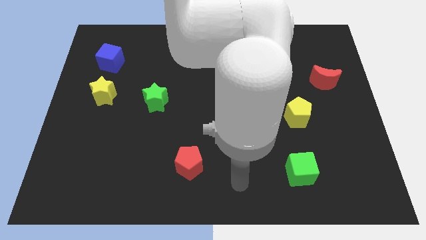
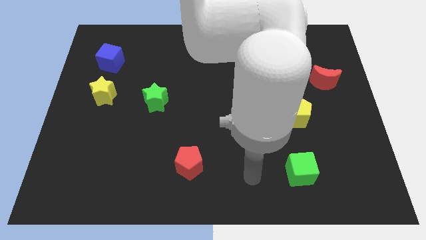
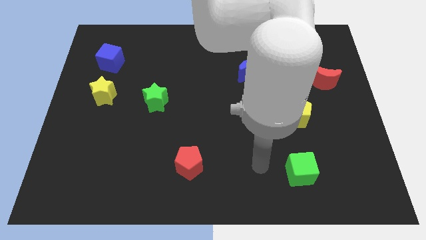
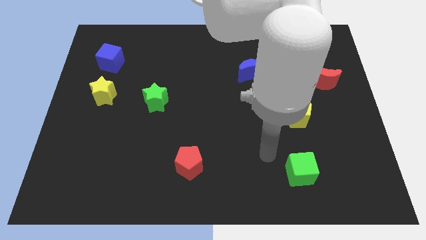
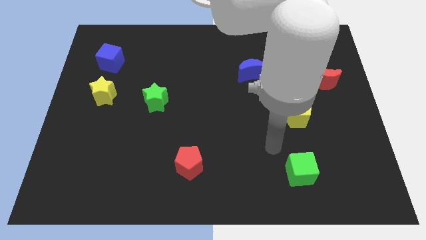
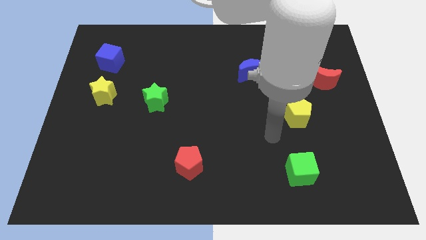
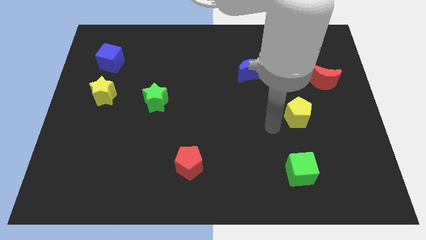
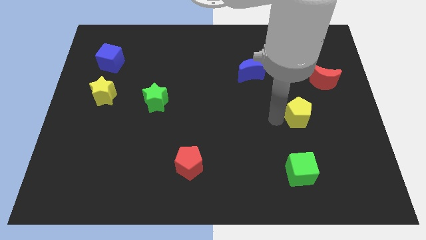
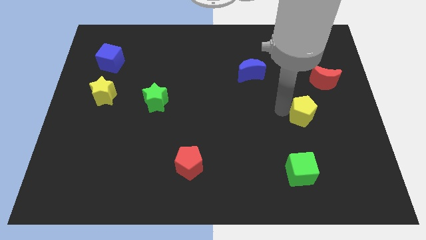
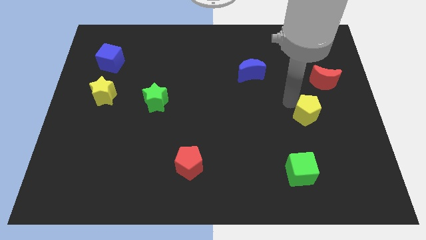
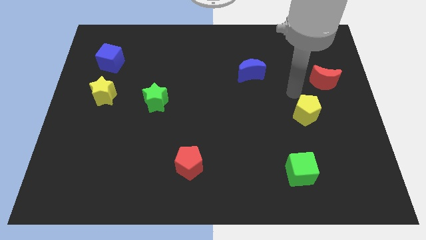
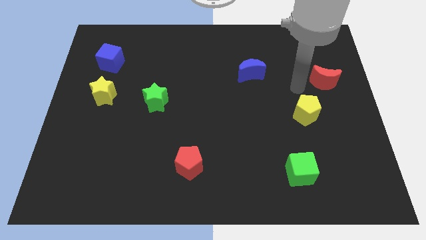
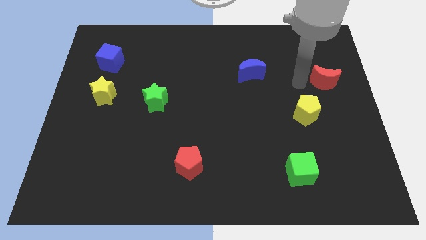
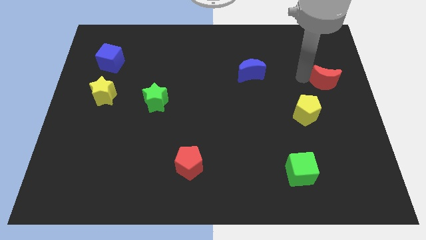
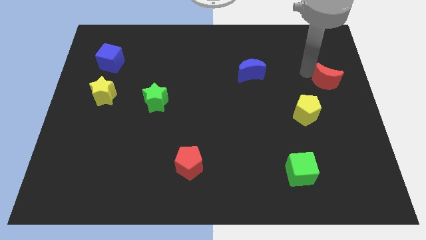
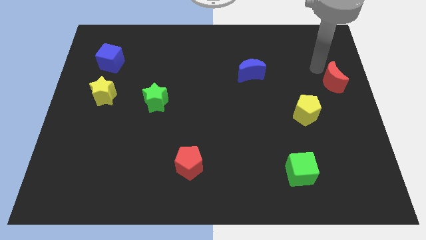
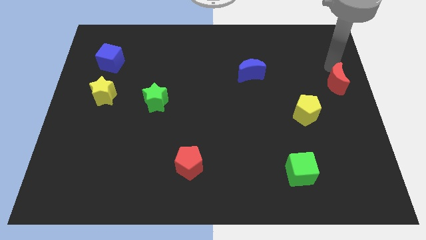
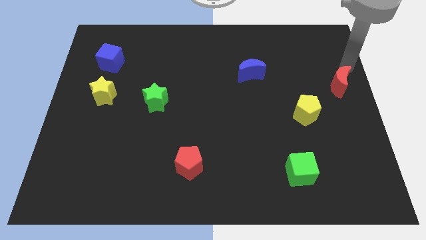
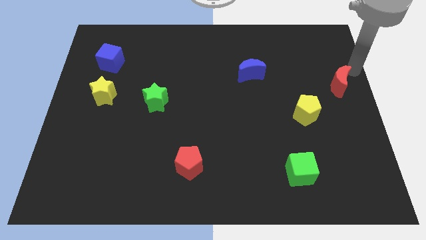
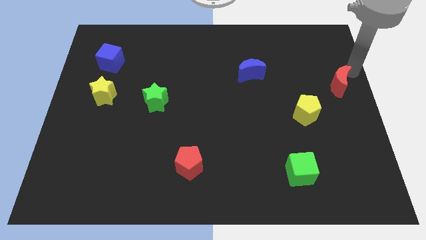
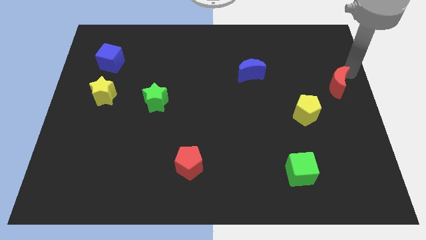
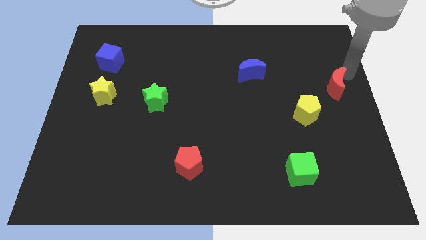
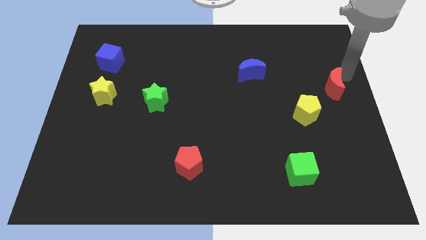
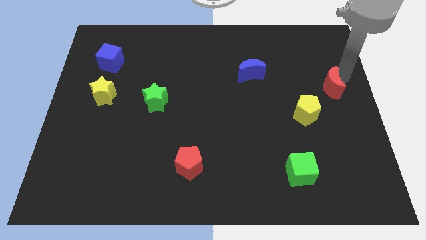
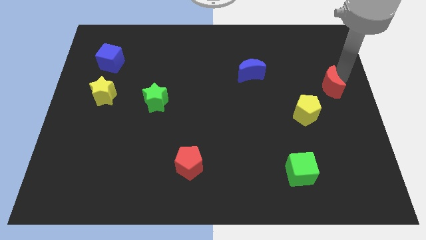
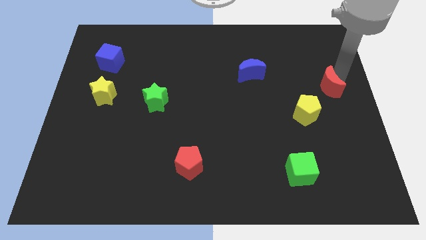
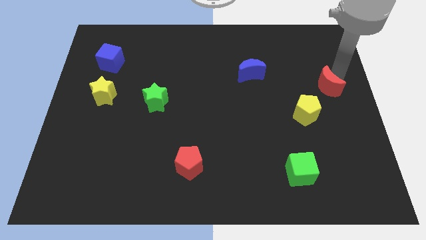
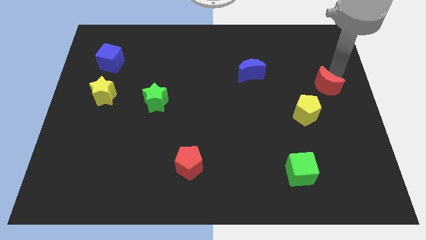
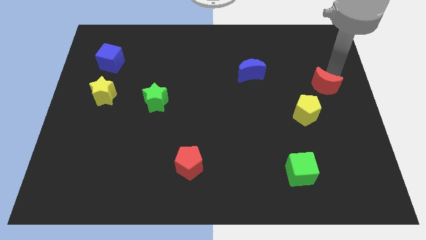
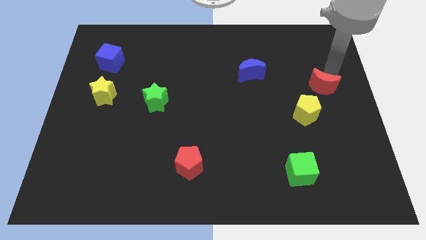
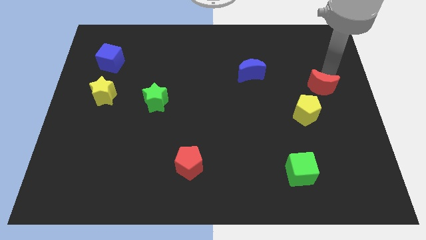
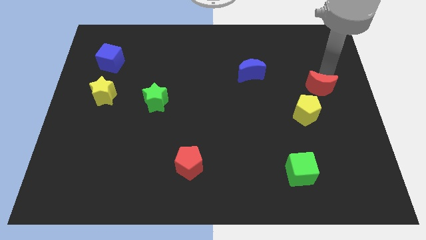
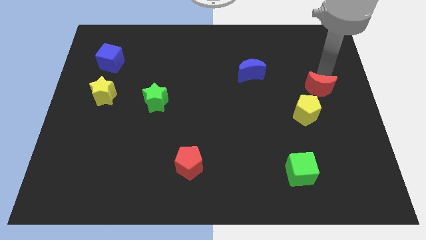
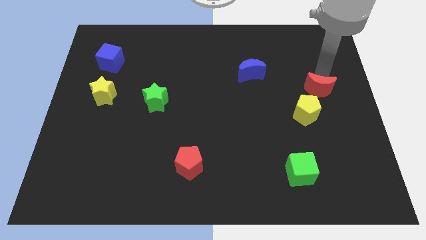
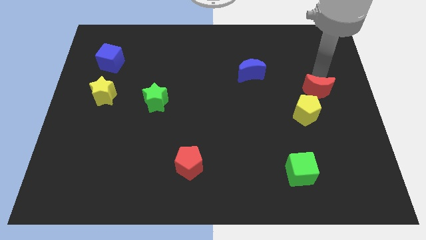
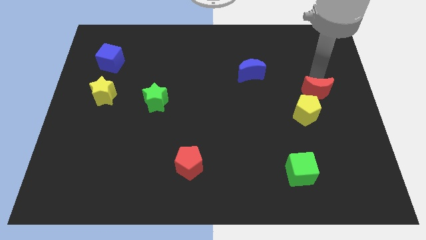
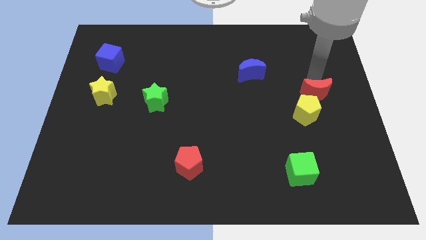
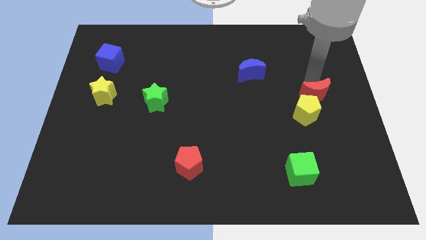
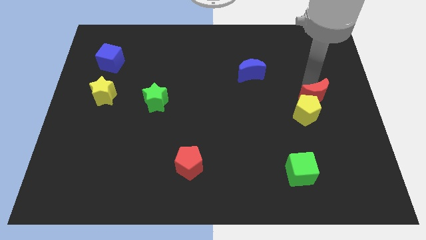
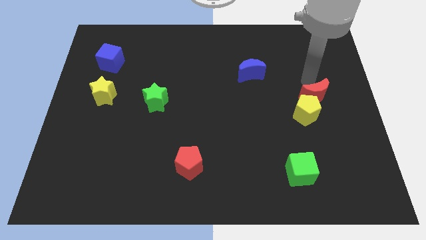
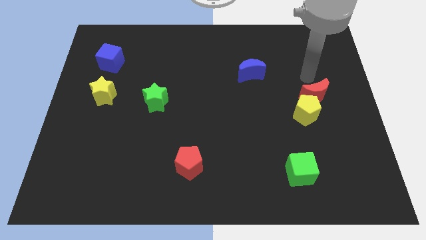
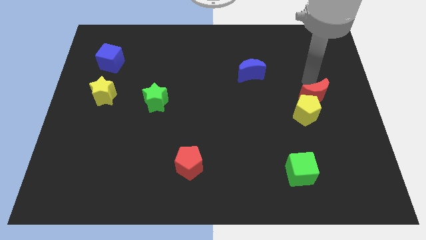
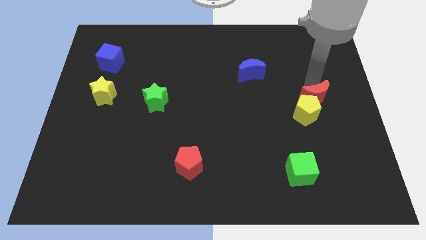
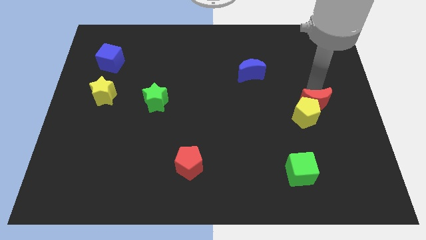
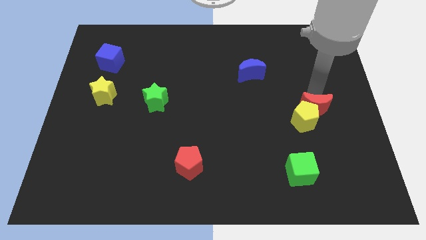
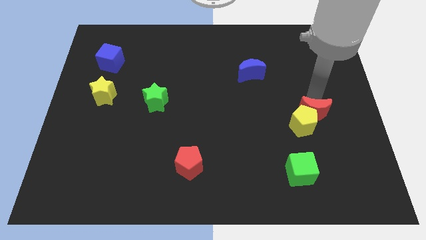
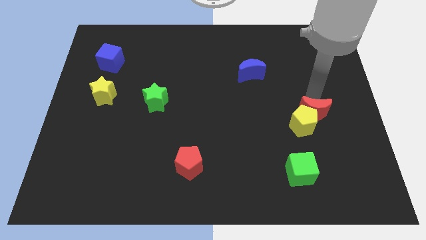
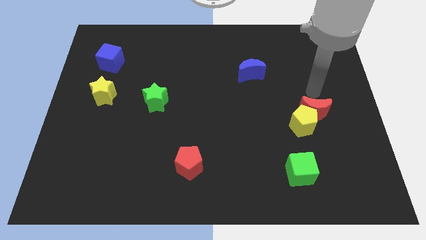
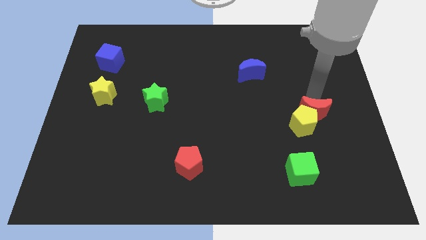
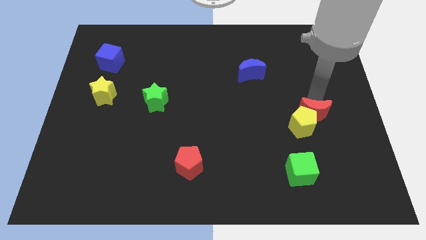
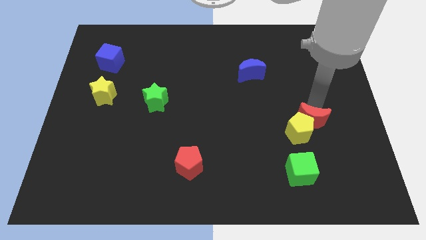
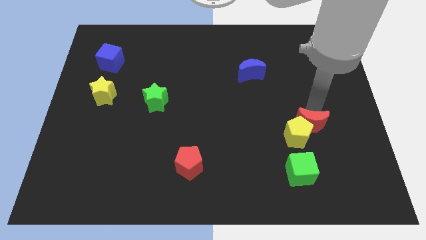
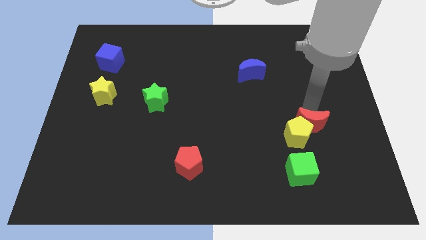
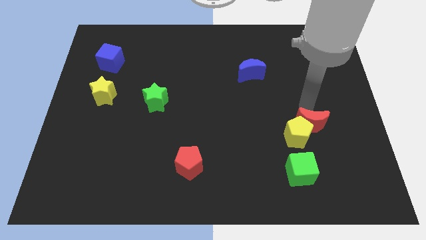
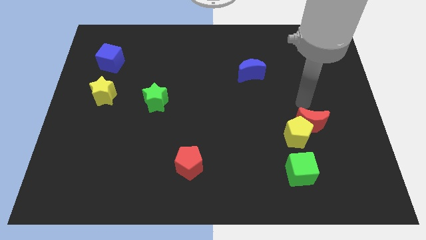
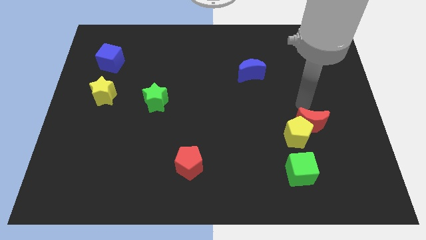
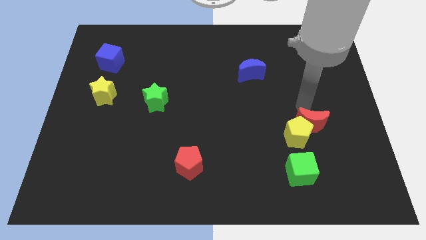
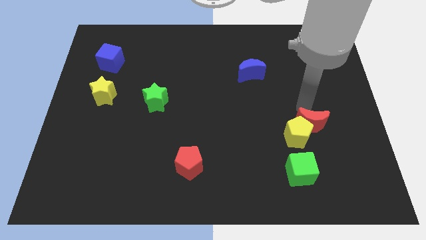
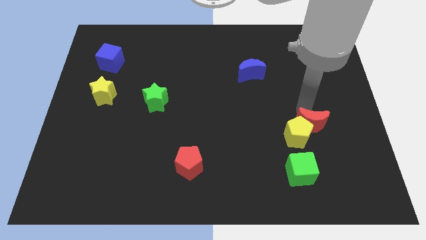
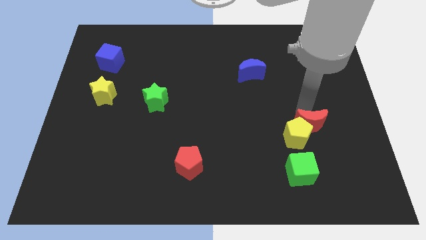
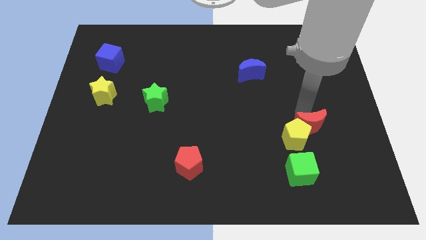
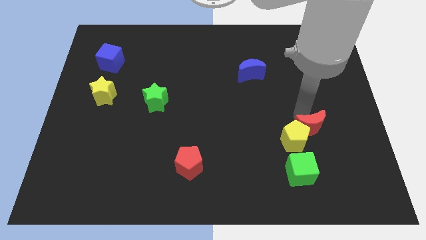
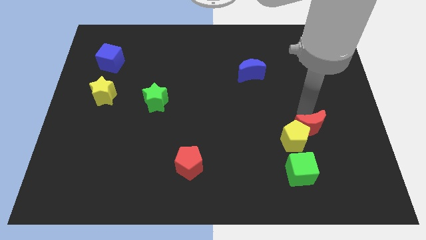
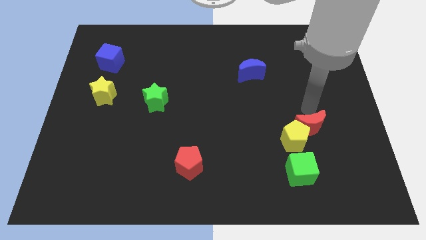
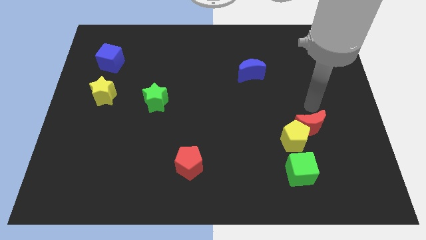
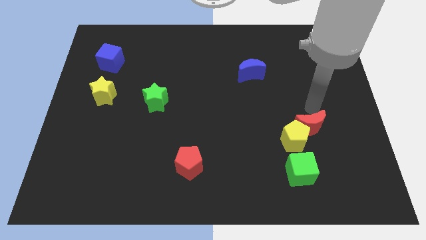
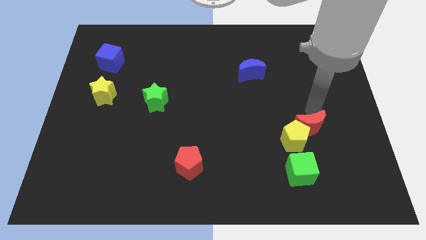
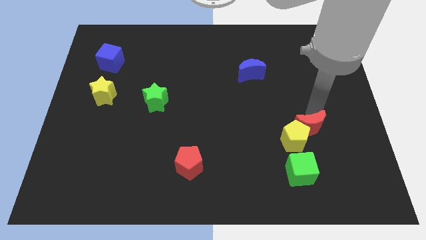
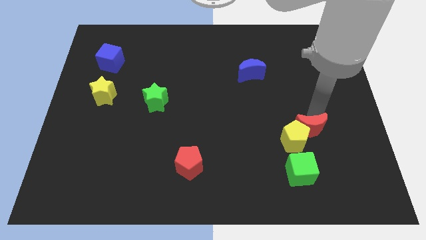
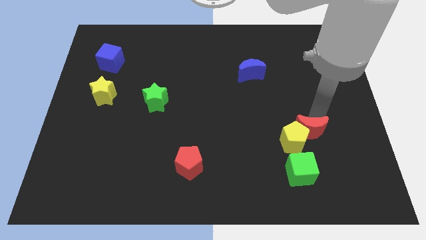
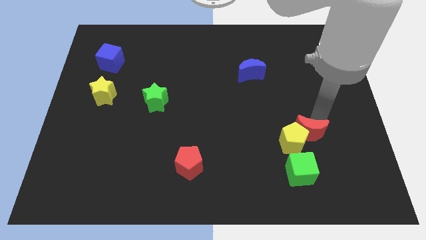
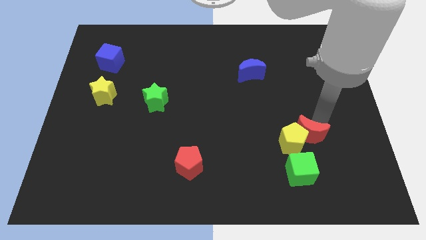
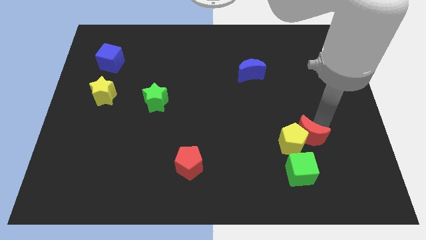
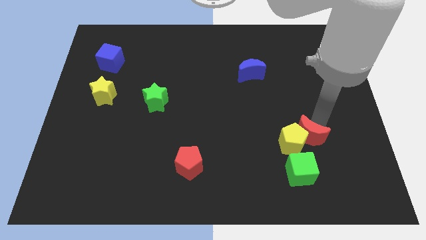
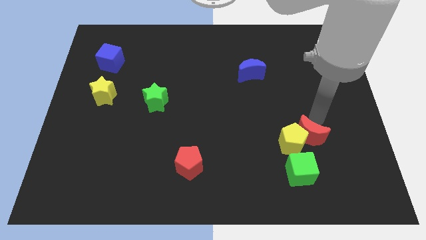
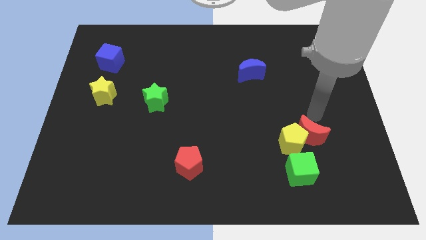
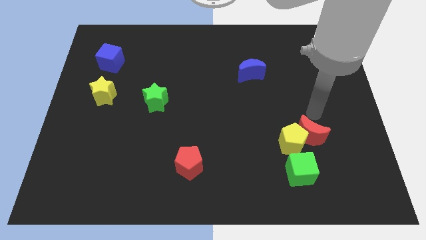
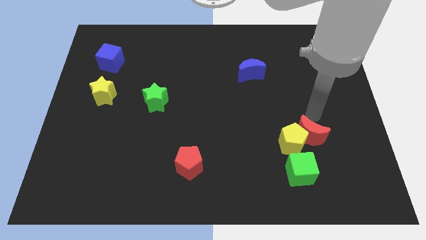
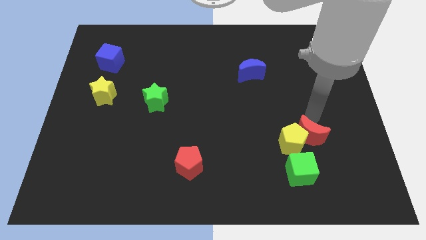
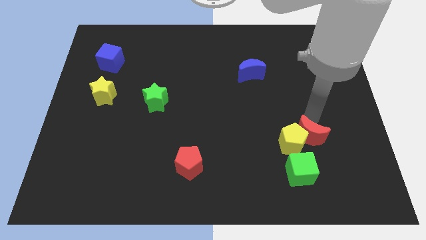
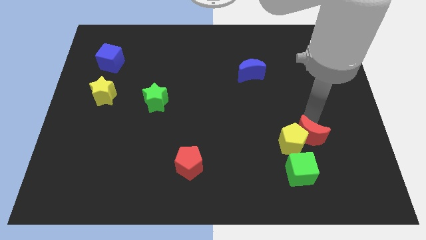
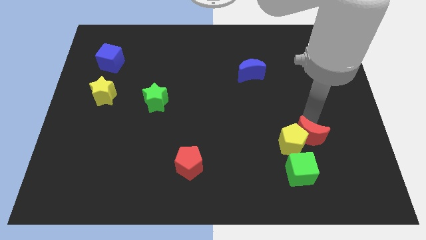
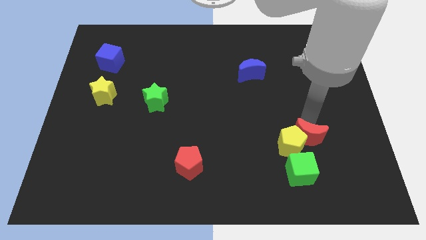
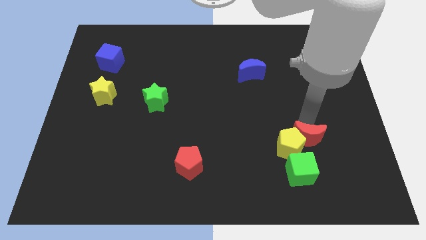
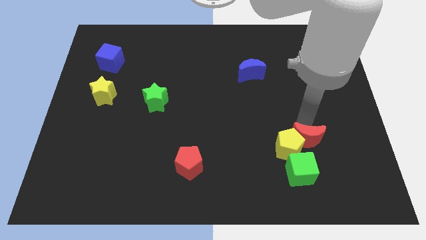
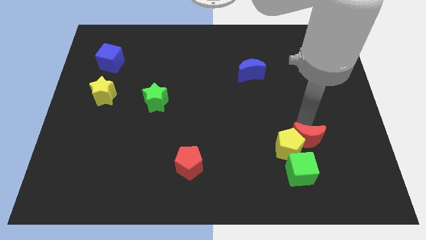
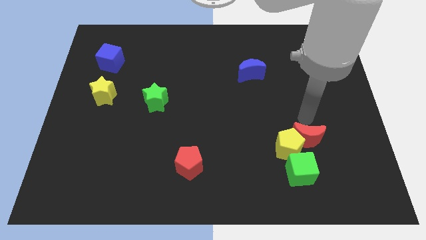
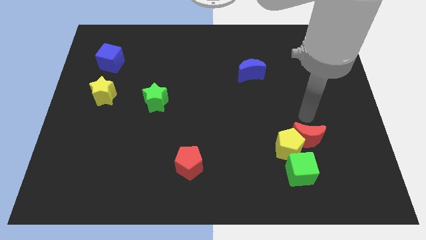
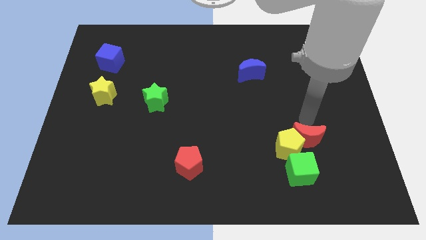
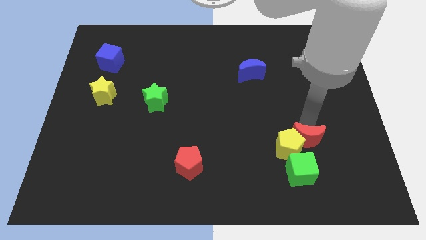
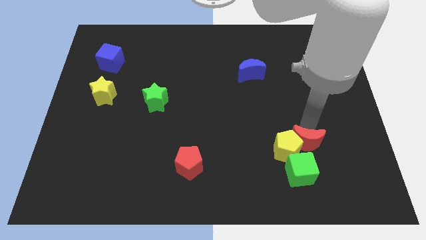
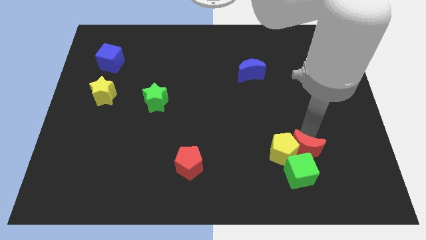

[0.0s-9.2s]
slide the red moon towards the green cube
